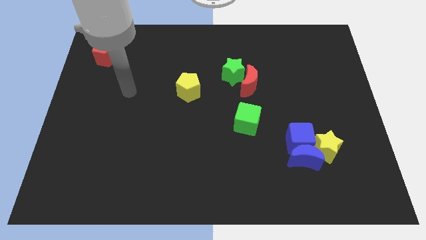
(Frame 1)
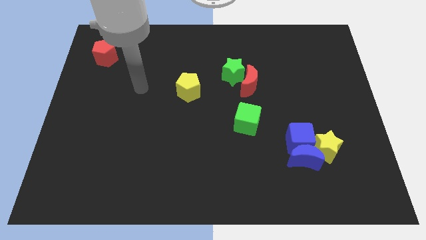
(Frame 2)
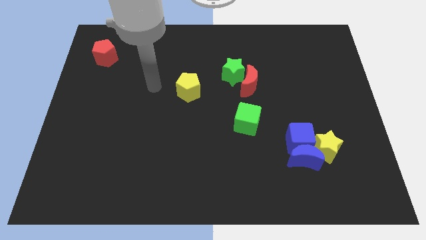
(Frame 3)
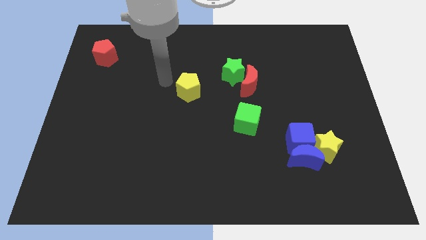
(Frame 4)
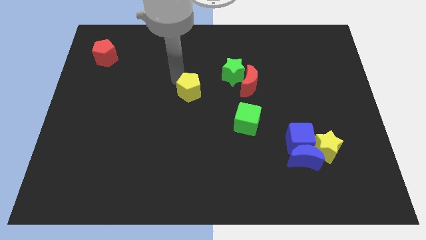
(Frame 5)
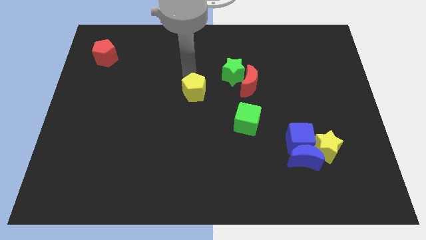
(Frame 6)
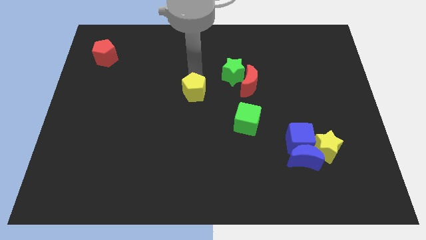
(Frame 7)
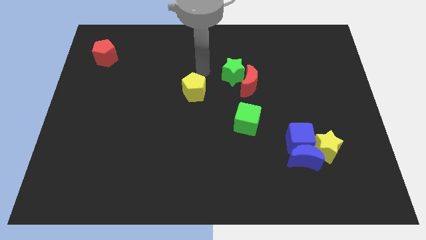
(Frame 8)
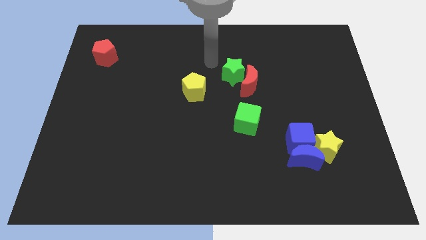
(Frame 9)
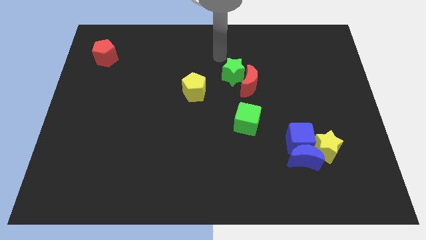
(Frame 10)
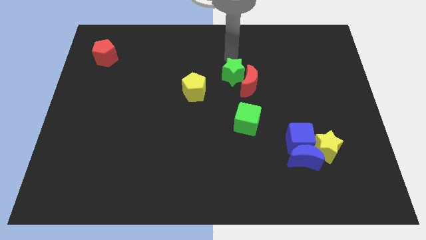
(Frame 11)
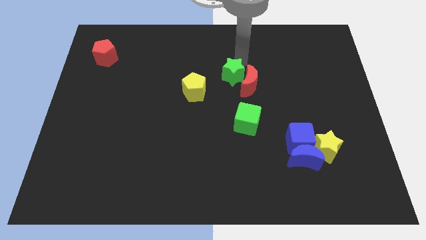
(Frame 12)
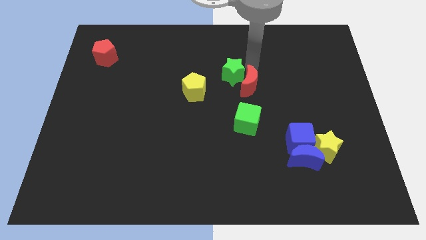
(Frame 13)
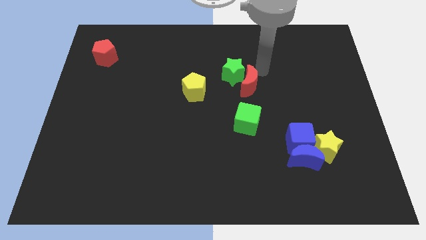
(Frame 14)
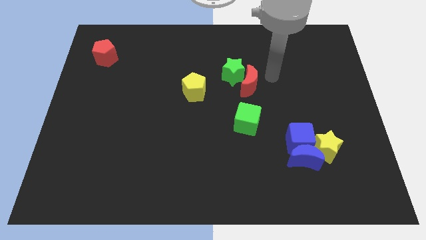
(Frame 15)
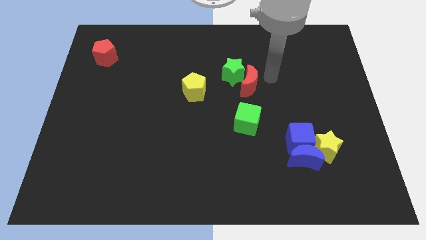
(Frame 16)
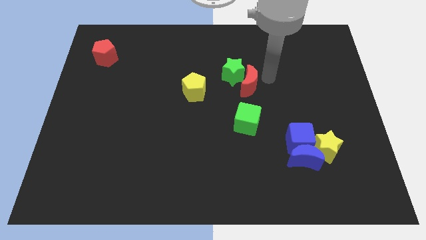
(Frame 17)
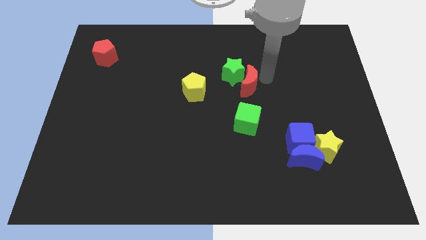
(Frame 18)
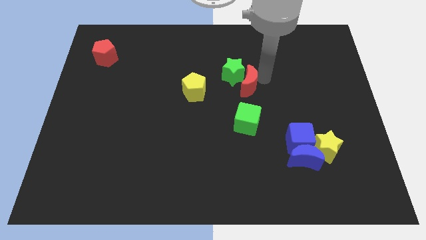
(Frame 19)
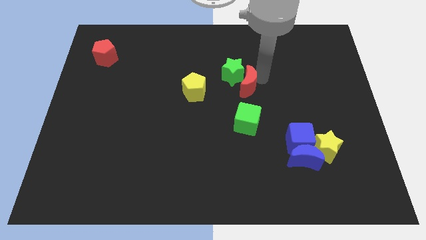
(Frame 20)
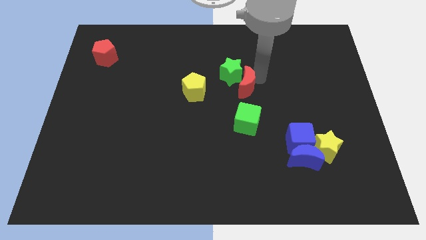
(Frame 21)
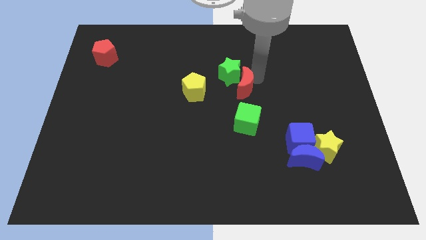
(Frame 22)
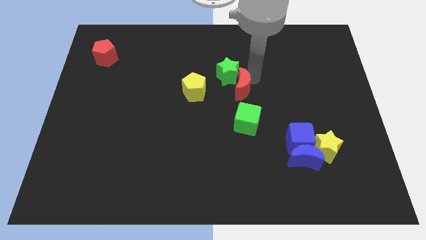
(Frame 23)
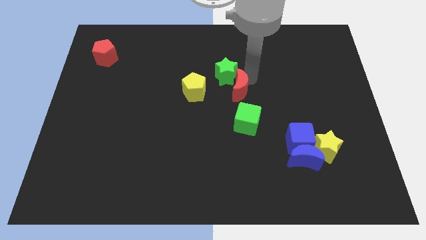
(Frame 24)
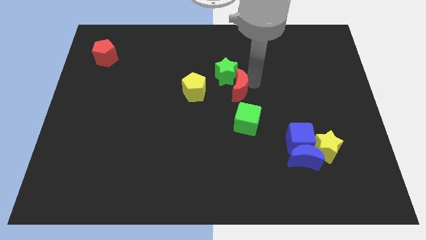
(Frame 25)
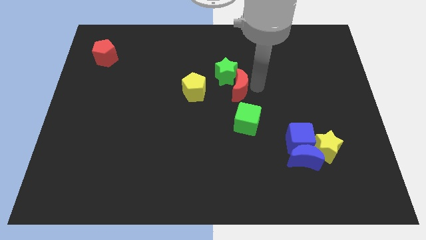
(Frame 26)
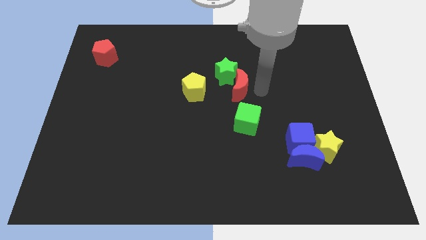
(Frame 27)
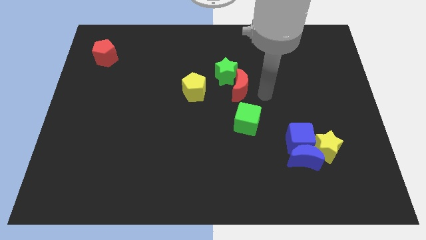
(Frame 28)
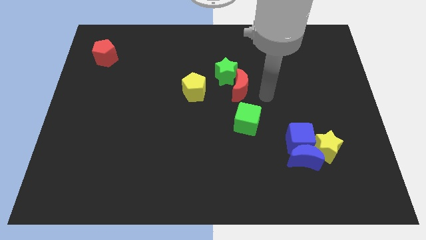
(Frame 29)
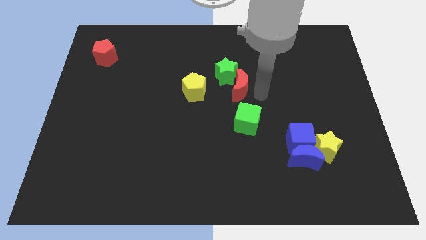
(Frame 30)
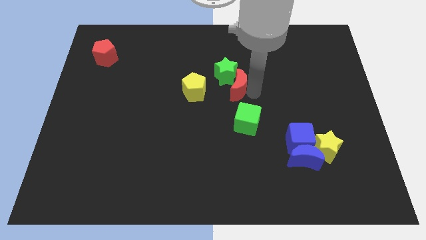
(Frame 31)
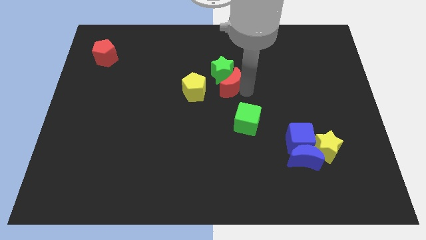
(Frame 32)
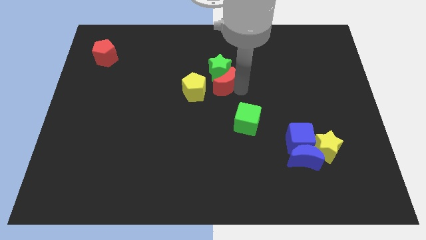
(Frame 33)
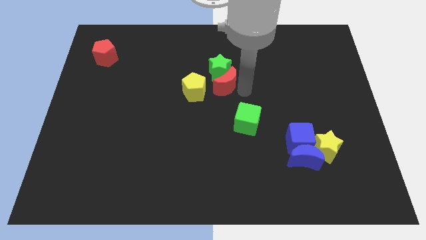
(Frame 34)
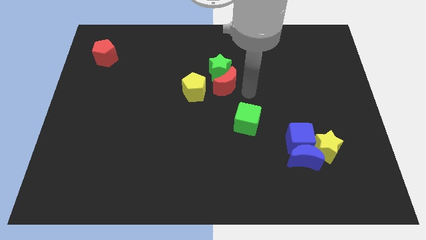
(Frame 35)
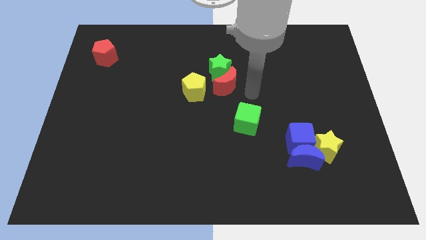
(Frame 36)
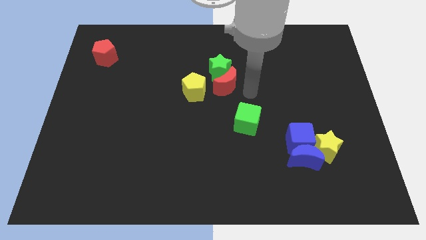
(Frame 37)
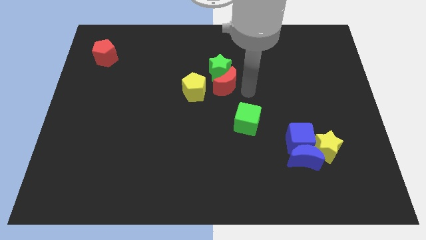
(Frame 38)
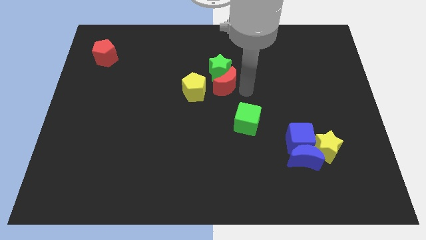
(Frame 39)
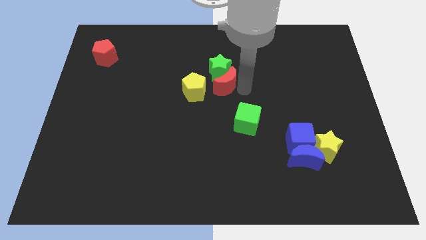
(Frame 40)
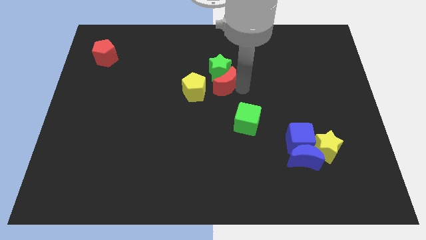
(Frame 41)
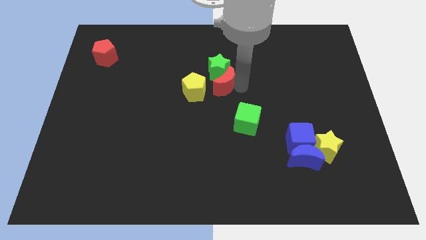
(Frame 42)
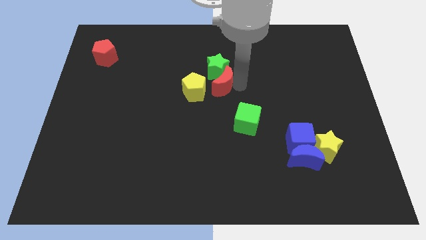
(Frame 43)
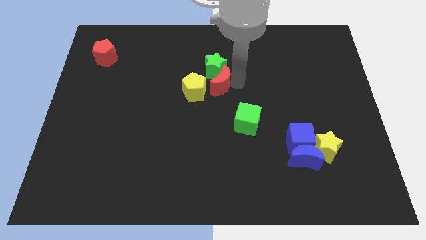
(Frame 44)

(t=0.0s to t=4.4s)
slide the red moon to the left somewhat

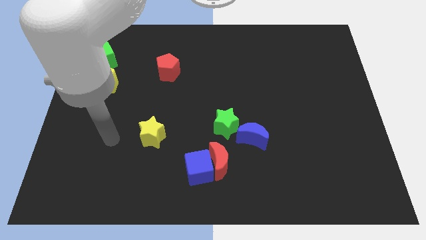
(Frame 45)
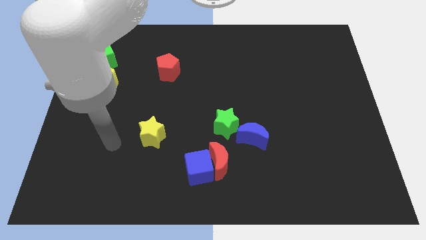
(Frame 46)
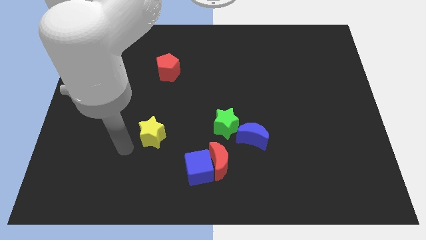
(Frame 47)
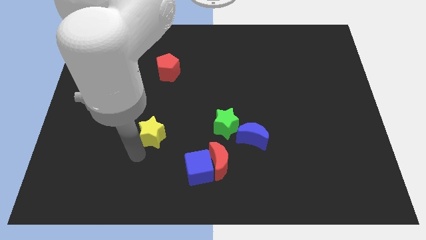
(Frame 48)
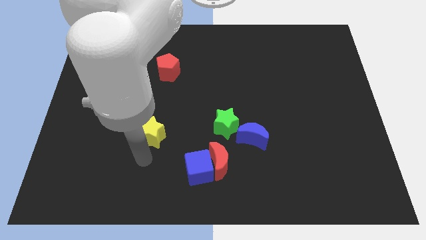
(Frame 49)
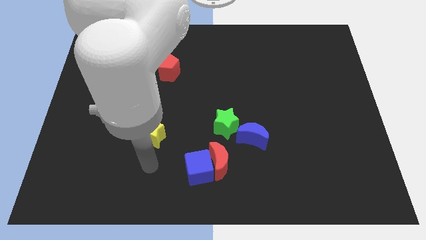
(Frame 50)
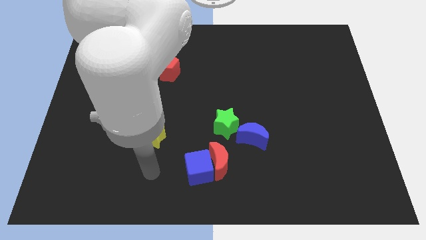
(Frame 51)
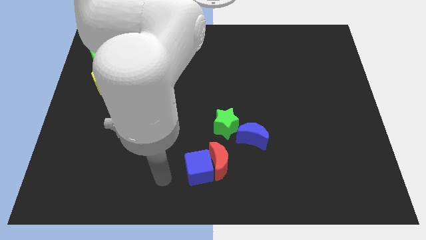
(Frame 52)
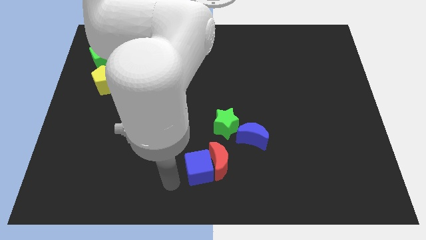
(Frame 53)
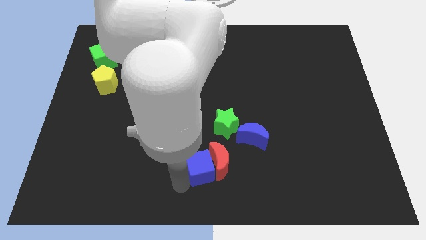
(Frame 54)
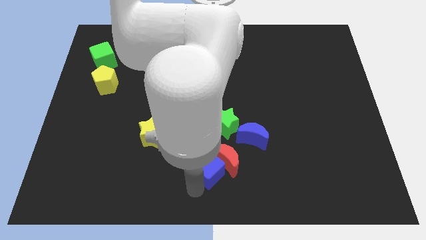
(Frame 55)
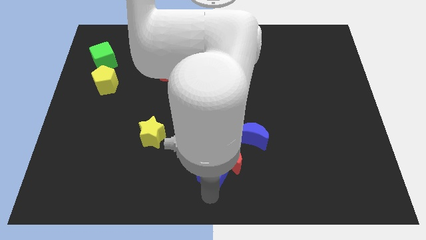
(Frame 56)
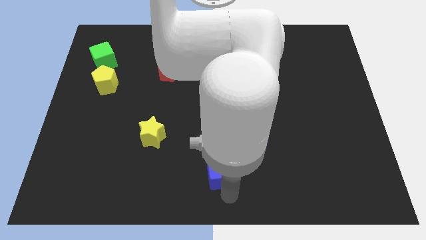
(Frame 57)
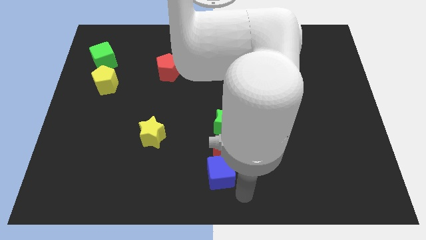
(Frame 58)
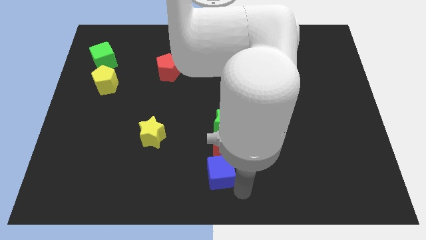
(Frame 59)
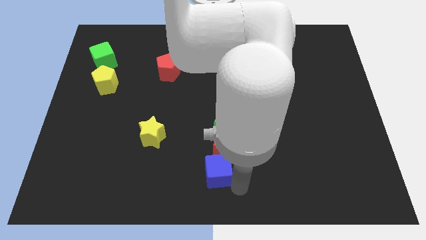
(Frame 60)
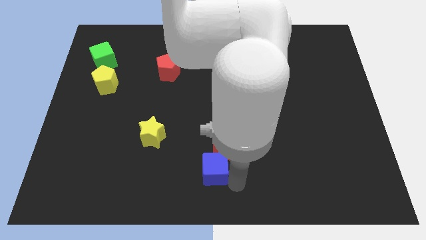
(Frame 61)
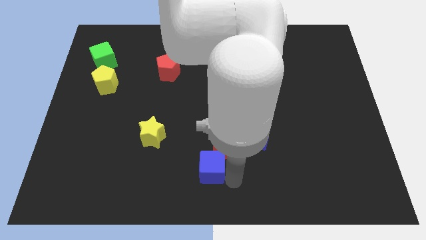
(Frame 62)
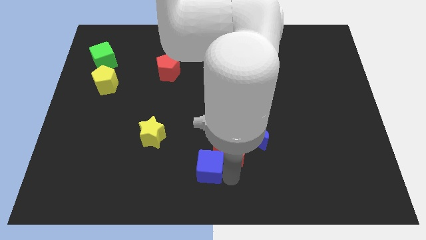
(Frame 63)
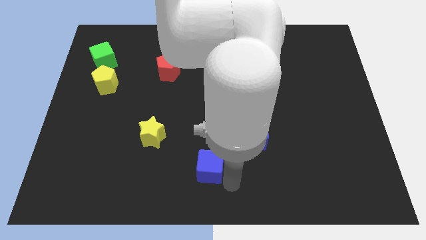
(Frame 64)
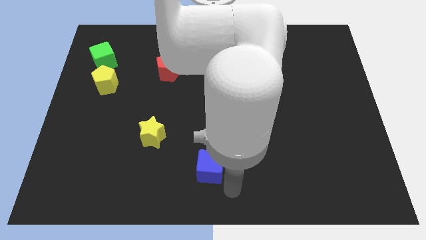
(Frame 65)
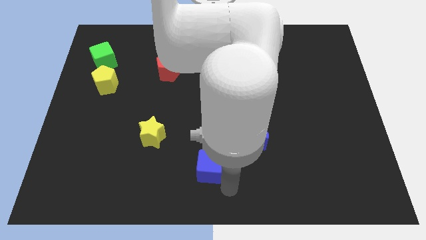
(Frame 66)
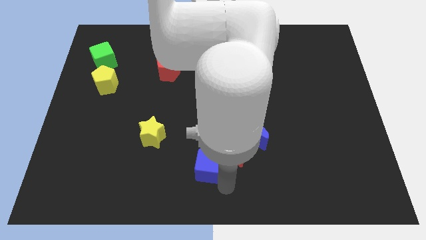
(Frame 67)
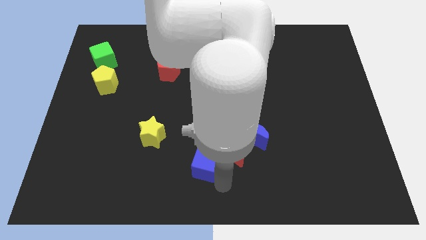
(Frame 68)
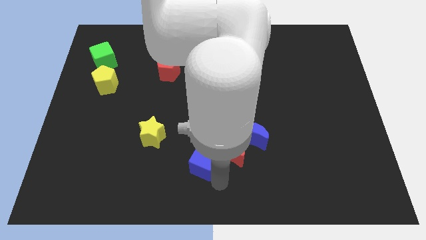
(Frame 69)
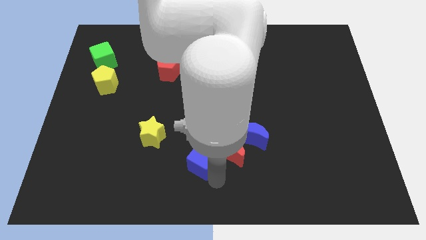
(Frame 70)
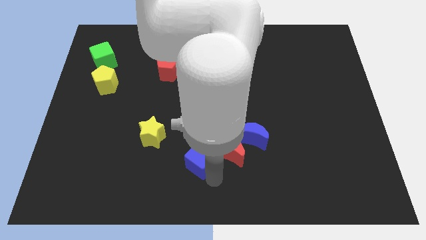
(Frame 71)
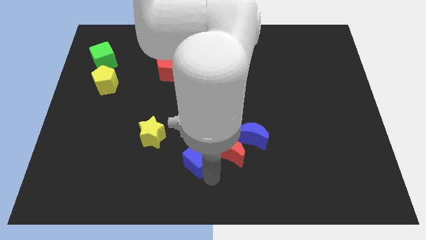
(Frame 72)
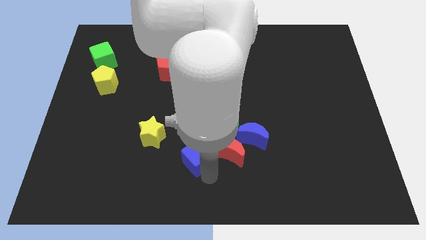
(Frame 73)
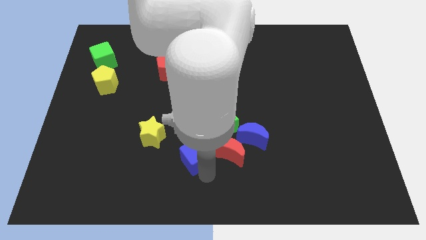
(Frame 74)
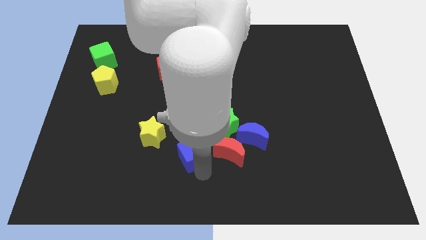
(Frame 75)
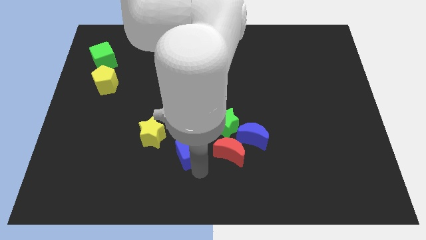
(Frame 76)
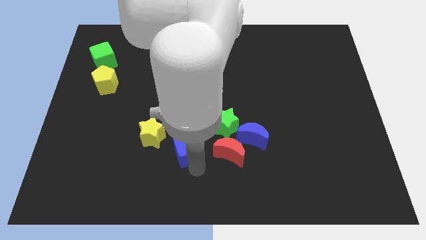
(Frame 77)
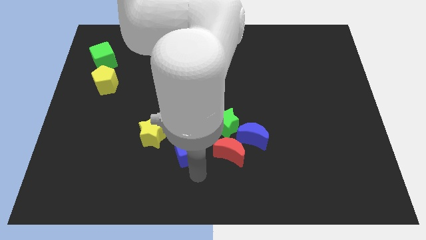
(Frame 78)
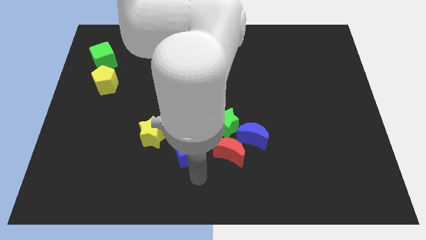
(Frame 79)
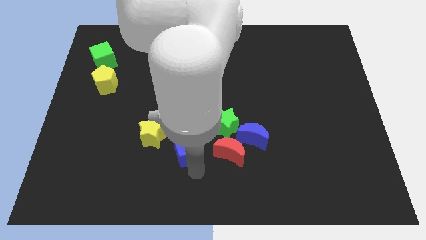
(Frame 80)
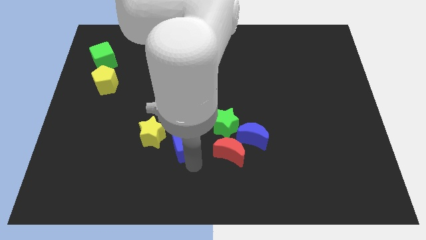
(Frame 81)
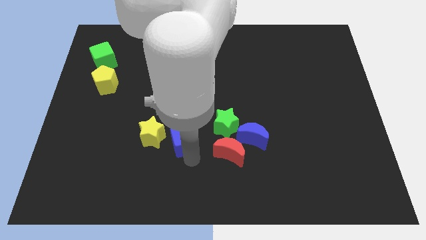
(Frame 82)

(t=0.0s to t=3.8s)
push the blue cube up and then left a bit
